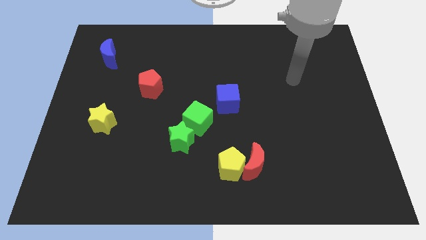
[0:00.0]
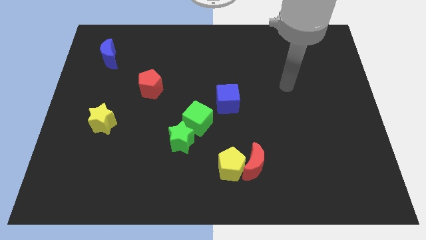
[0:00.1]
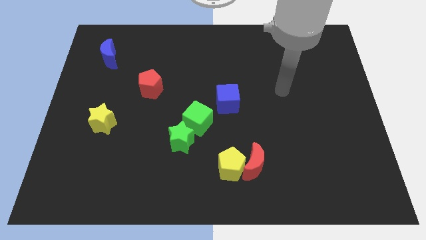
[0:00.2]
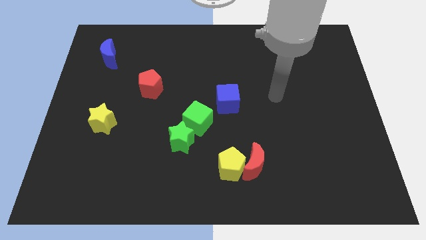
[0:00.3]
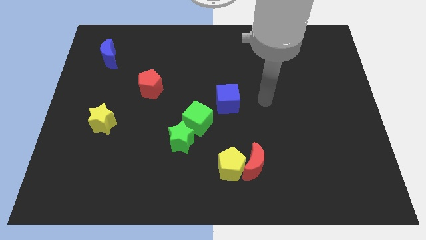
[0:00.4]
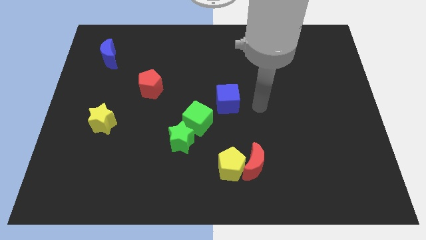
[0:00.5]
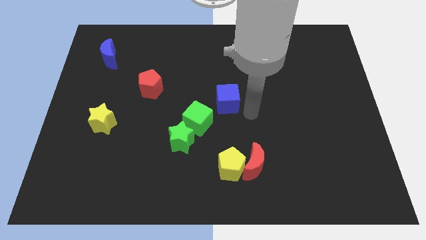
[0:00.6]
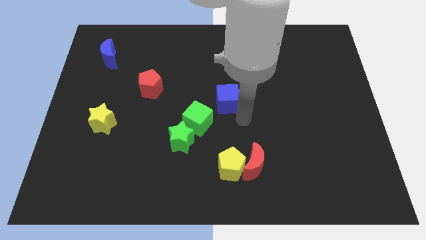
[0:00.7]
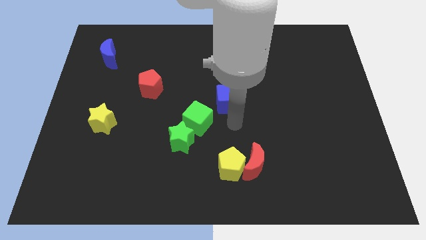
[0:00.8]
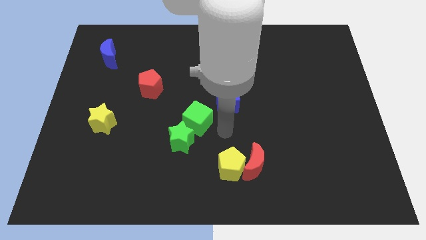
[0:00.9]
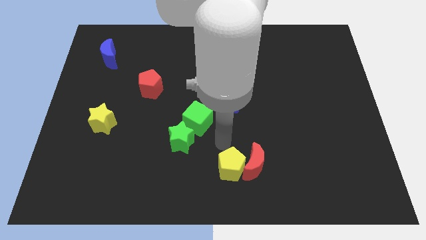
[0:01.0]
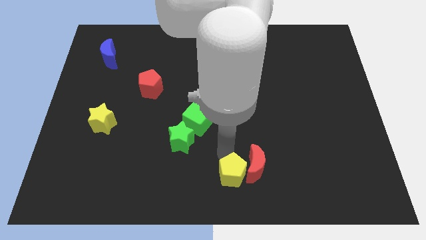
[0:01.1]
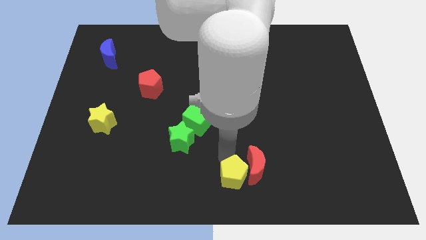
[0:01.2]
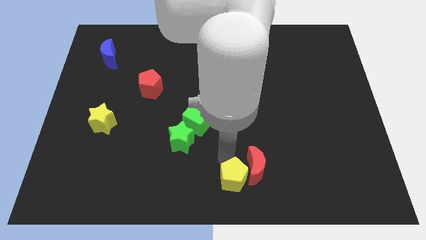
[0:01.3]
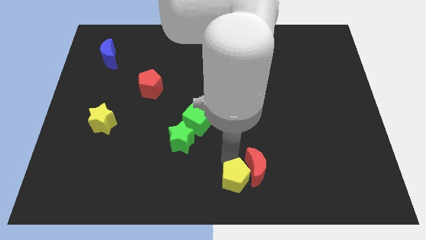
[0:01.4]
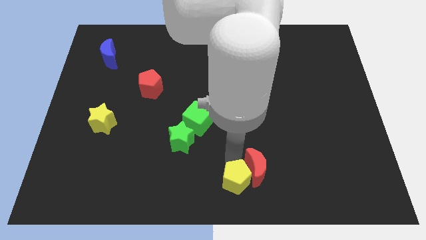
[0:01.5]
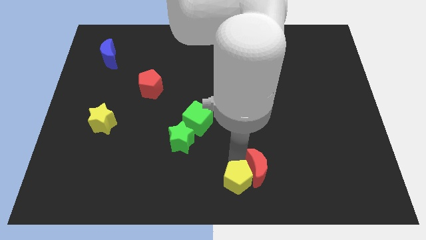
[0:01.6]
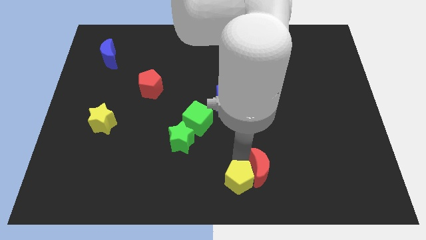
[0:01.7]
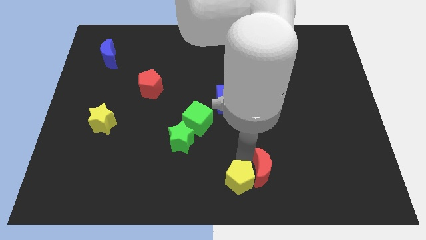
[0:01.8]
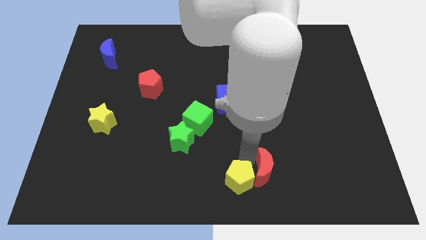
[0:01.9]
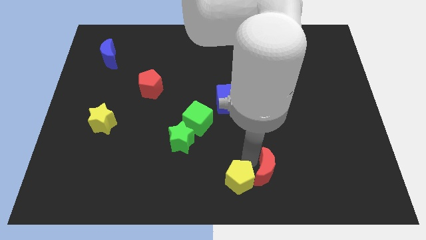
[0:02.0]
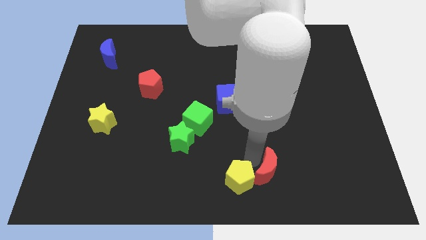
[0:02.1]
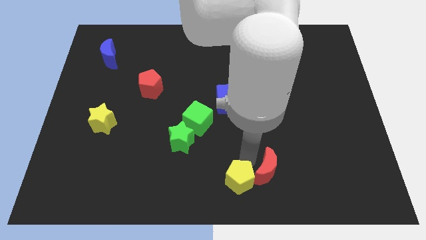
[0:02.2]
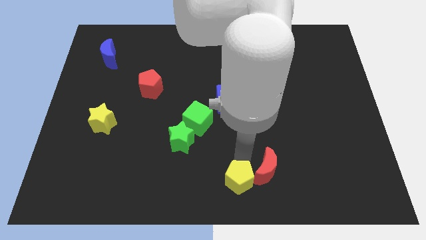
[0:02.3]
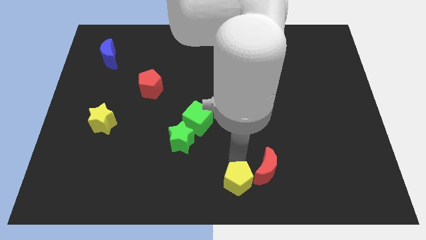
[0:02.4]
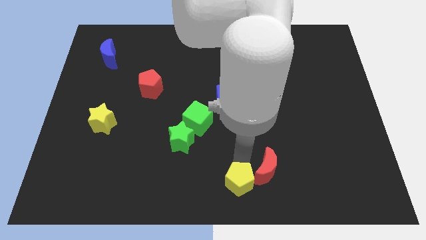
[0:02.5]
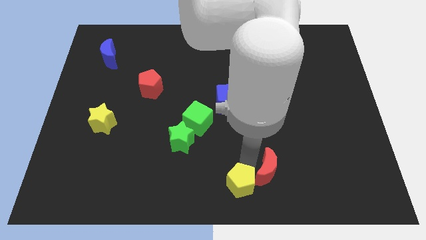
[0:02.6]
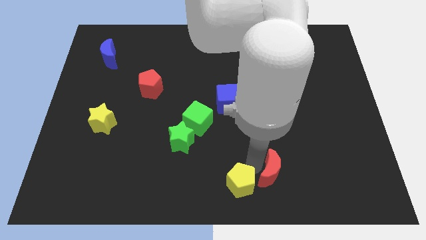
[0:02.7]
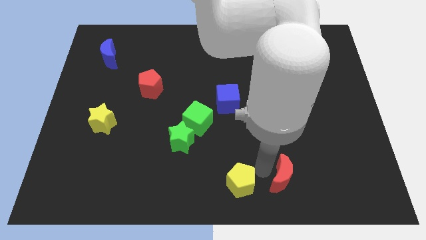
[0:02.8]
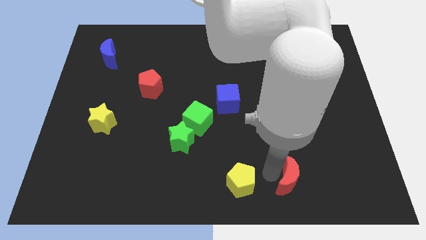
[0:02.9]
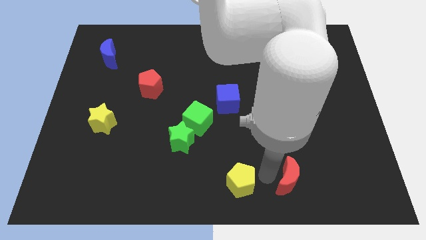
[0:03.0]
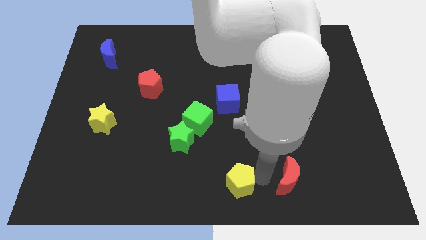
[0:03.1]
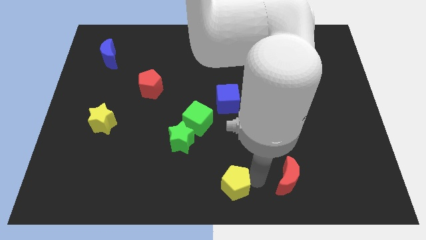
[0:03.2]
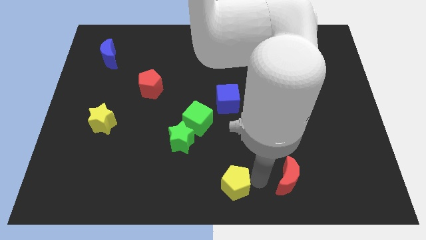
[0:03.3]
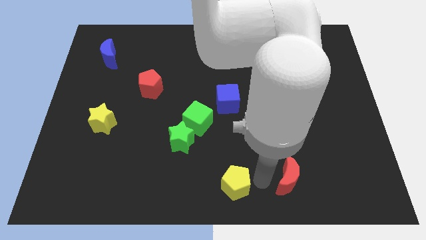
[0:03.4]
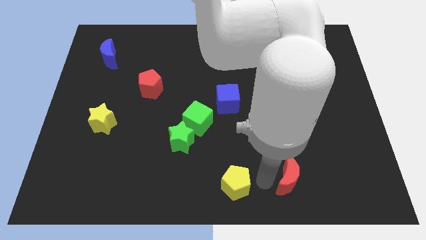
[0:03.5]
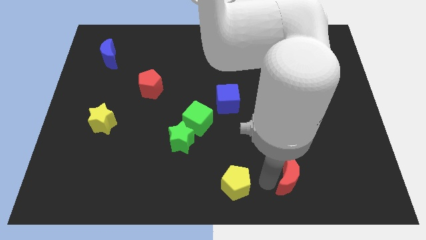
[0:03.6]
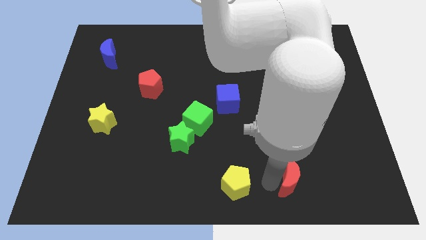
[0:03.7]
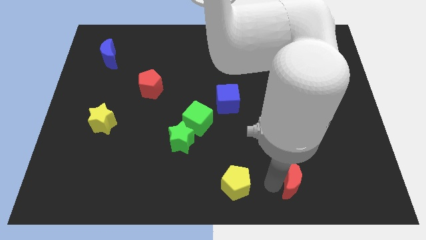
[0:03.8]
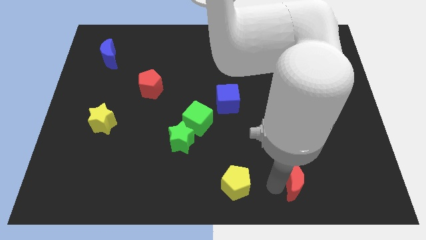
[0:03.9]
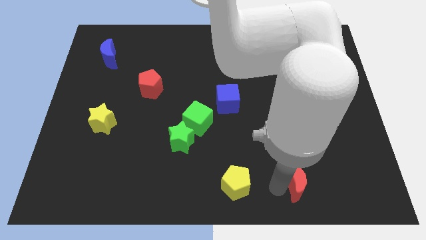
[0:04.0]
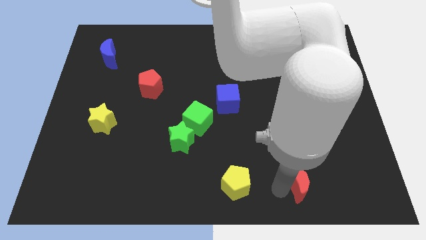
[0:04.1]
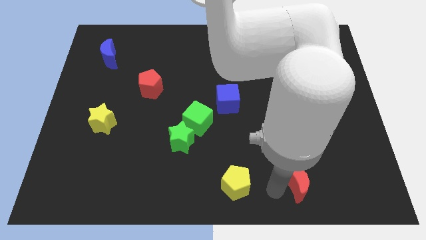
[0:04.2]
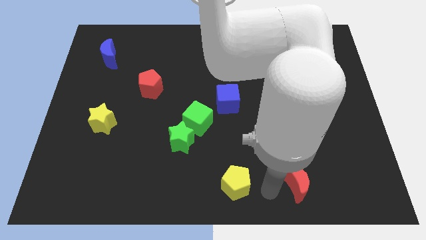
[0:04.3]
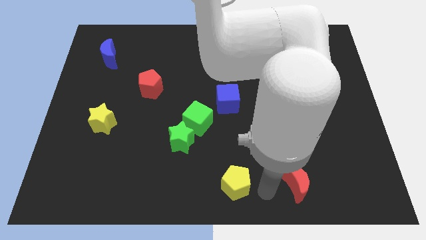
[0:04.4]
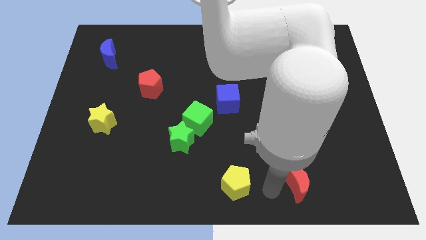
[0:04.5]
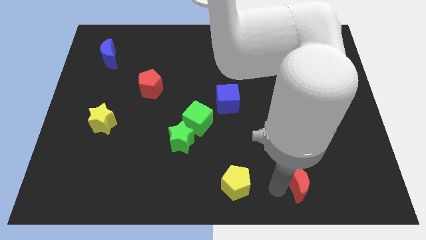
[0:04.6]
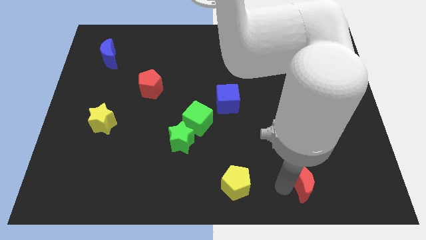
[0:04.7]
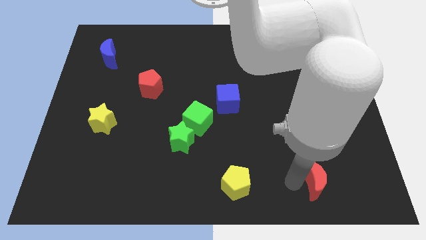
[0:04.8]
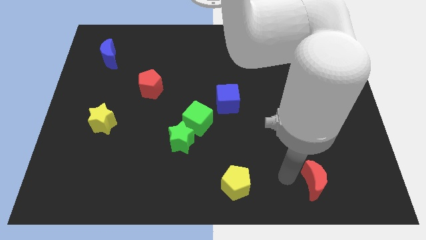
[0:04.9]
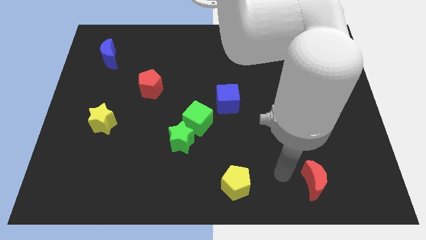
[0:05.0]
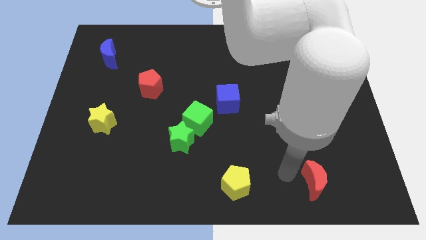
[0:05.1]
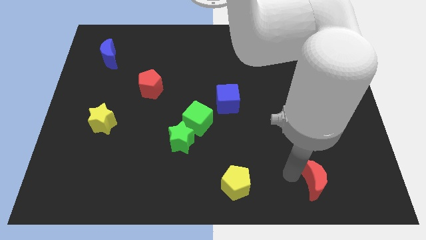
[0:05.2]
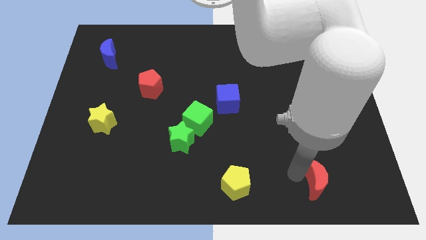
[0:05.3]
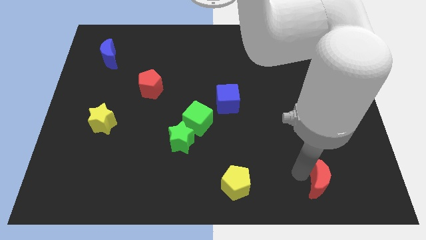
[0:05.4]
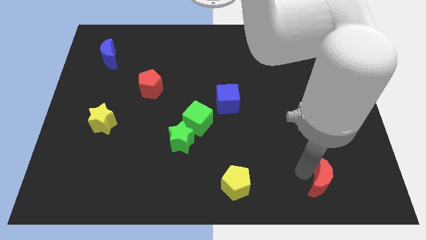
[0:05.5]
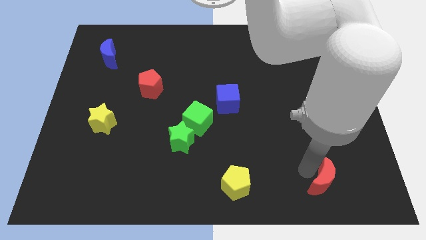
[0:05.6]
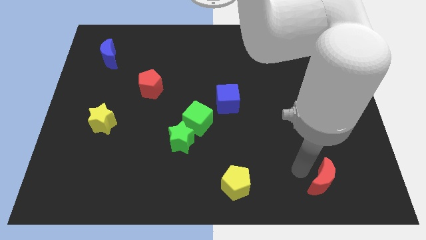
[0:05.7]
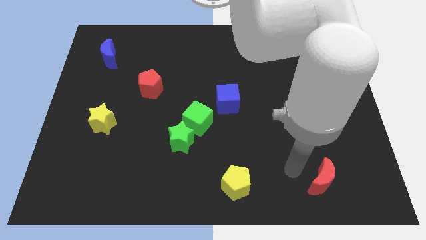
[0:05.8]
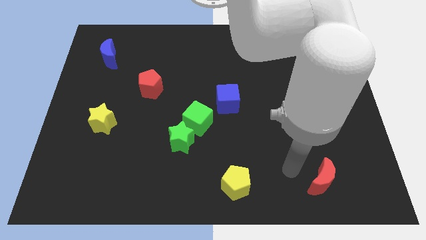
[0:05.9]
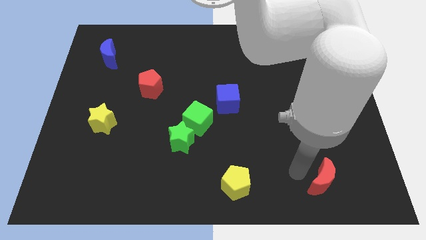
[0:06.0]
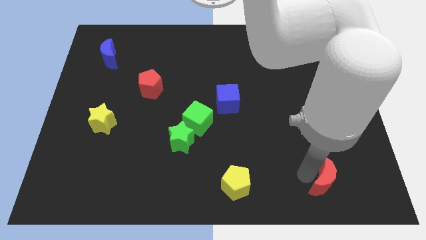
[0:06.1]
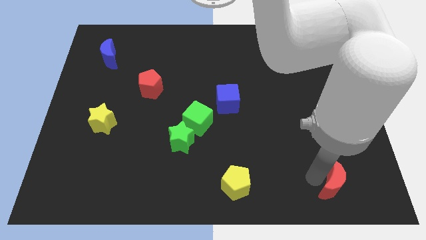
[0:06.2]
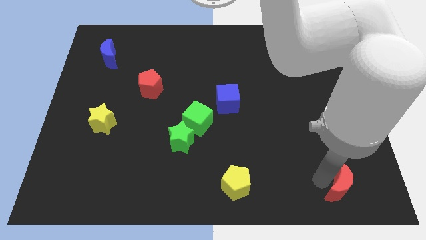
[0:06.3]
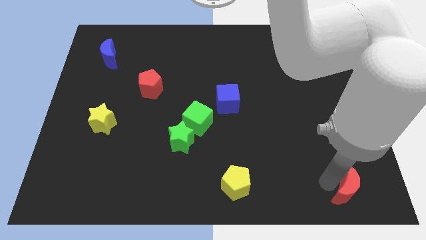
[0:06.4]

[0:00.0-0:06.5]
move the red moon to the bottom right
